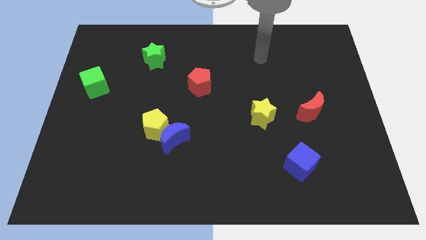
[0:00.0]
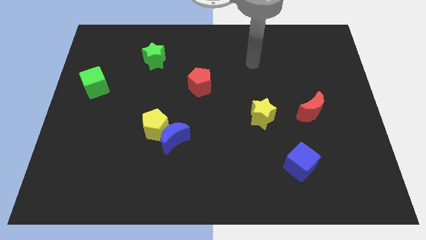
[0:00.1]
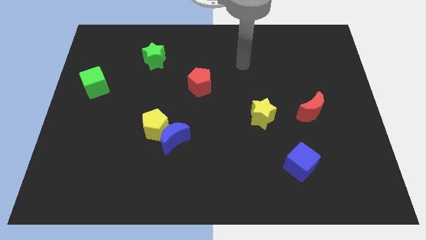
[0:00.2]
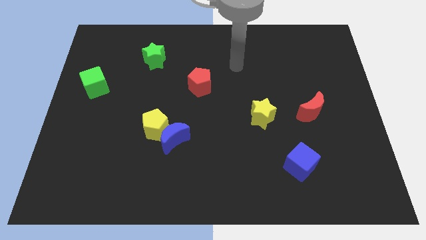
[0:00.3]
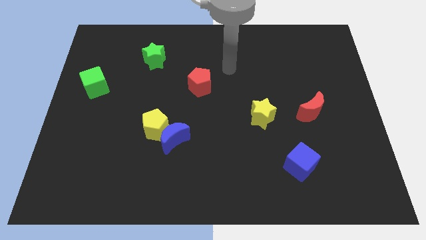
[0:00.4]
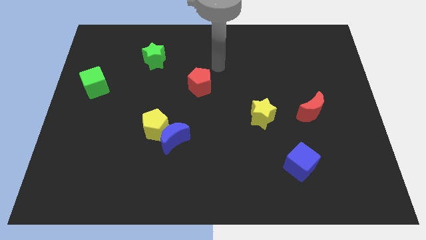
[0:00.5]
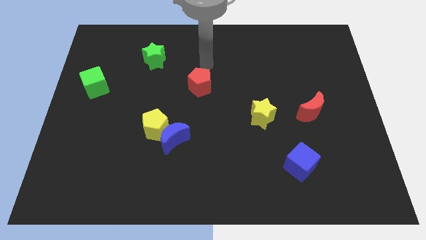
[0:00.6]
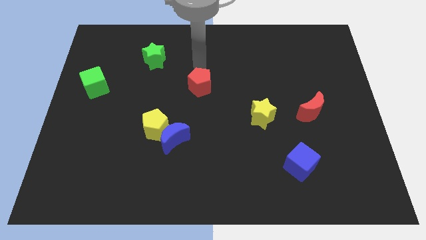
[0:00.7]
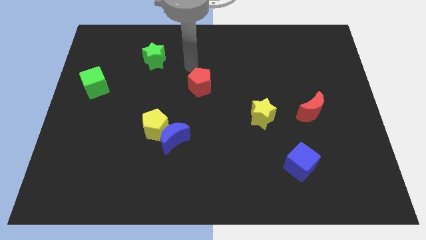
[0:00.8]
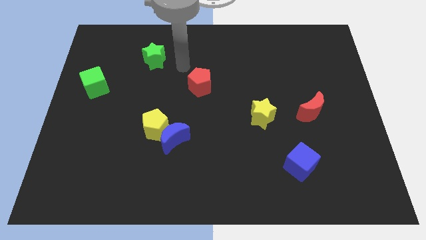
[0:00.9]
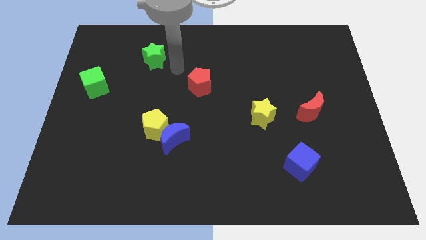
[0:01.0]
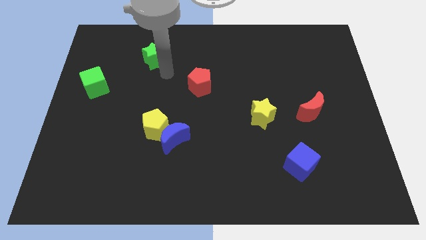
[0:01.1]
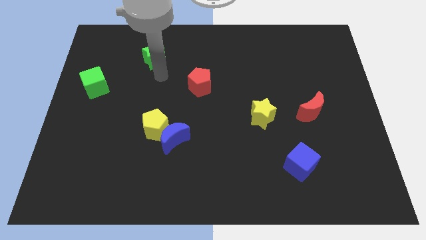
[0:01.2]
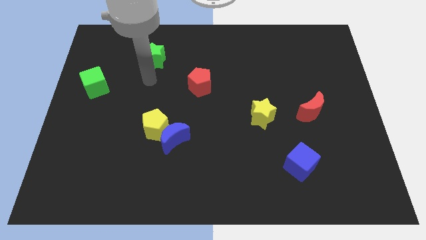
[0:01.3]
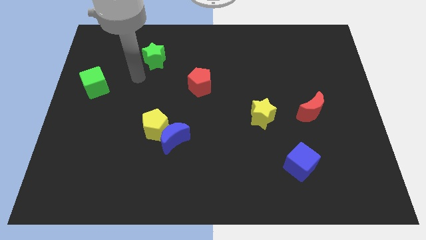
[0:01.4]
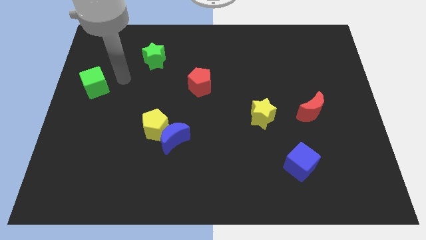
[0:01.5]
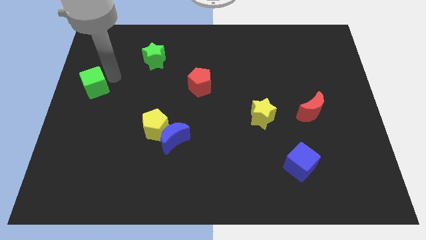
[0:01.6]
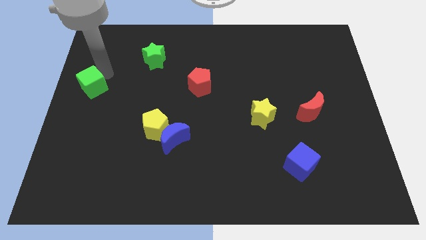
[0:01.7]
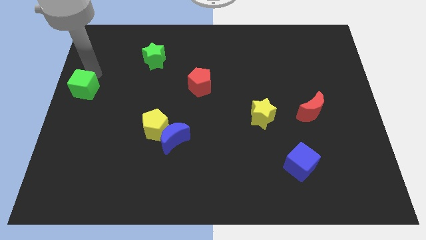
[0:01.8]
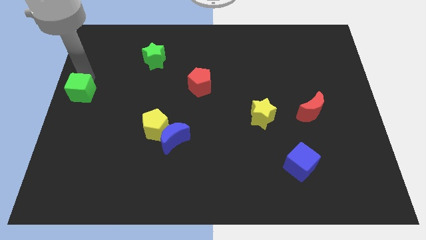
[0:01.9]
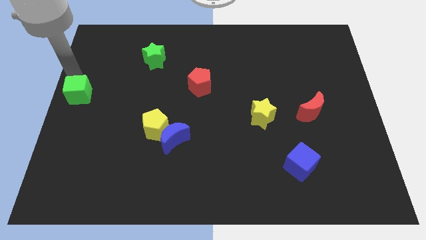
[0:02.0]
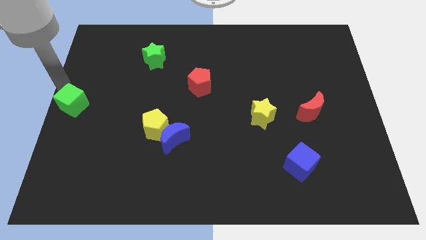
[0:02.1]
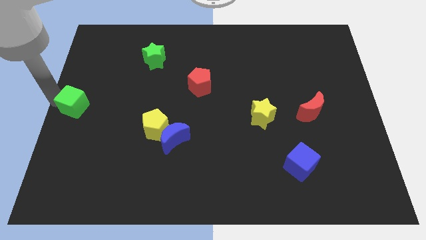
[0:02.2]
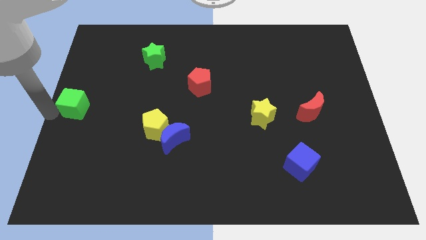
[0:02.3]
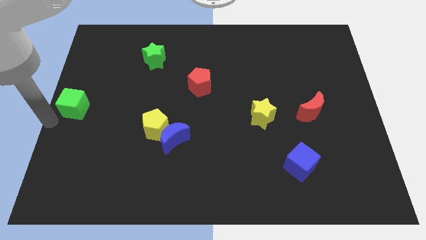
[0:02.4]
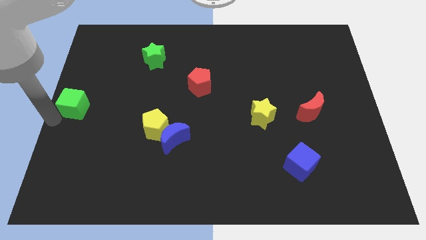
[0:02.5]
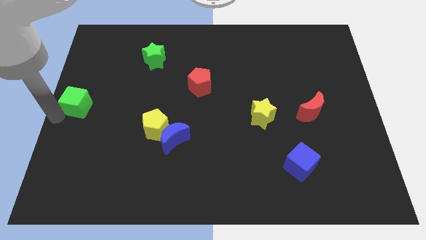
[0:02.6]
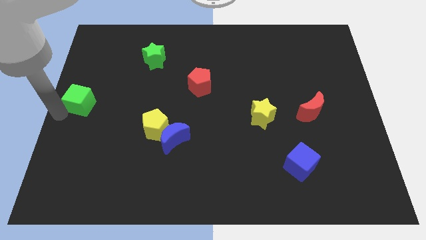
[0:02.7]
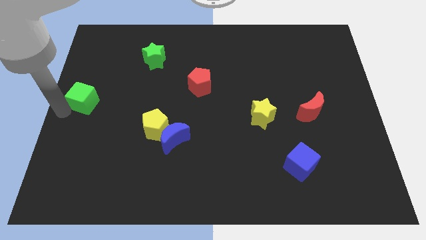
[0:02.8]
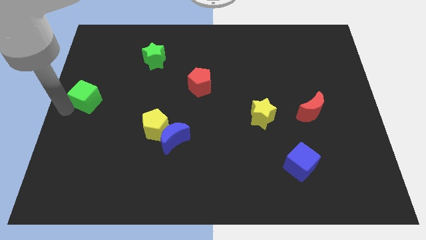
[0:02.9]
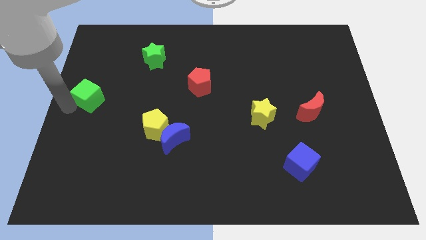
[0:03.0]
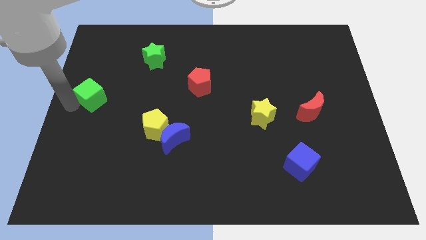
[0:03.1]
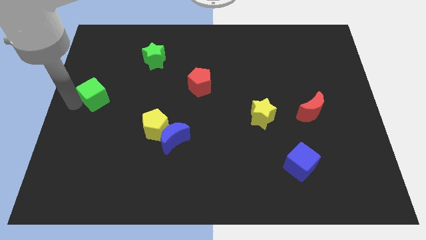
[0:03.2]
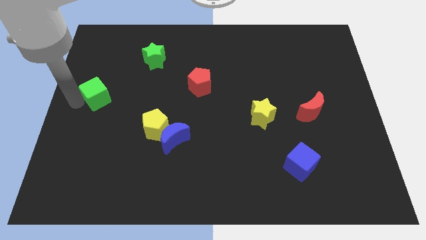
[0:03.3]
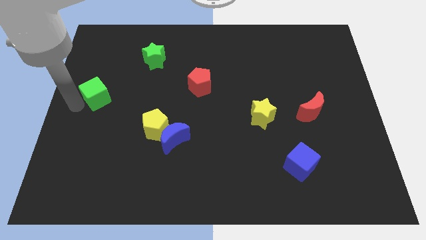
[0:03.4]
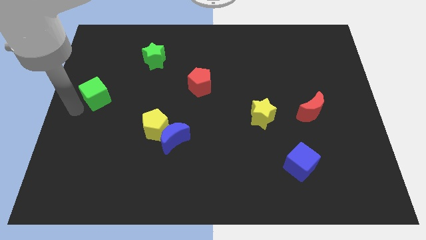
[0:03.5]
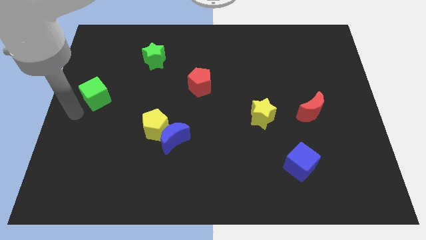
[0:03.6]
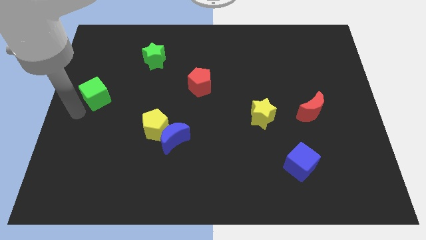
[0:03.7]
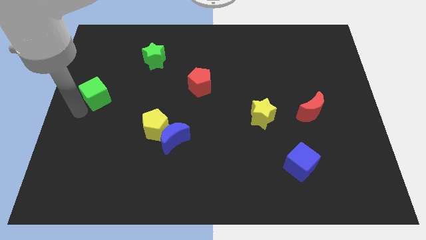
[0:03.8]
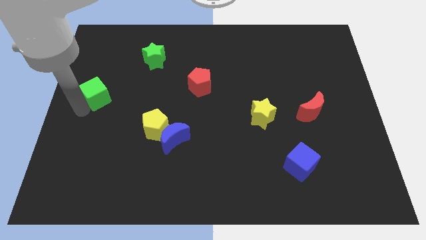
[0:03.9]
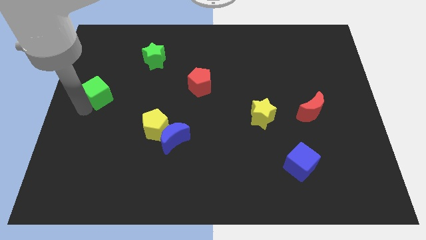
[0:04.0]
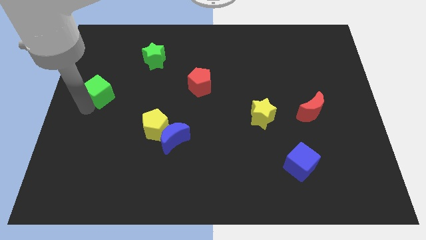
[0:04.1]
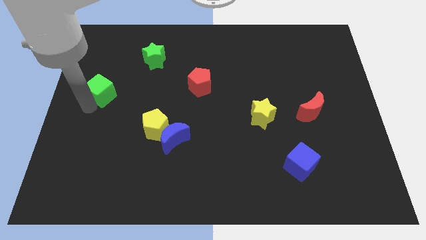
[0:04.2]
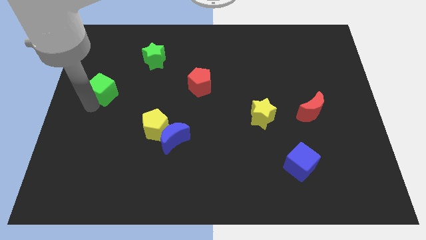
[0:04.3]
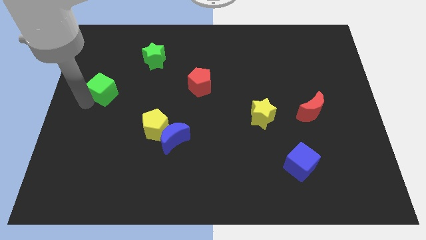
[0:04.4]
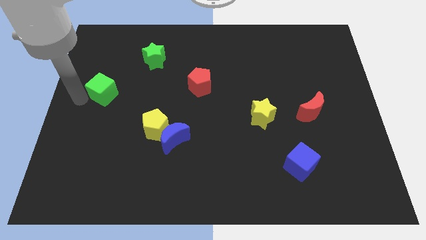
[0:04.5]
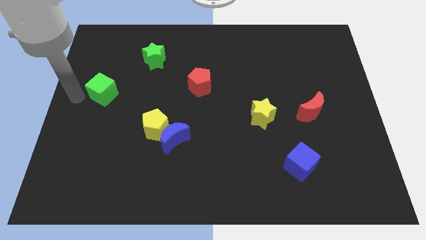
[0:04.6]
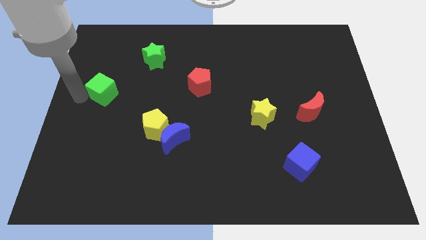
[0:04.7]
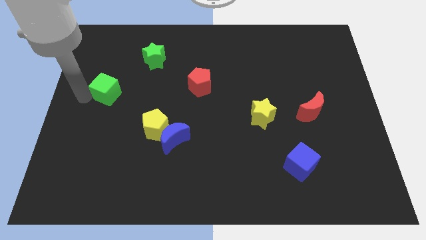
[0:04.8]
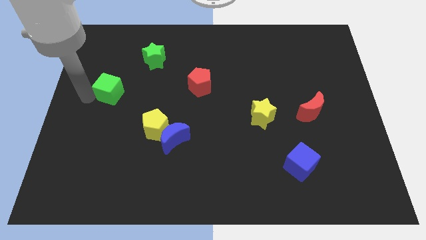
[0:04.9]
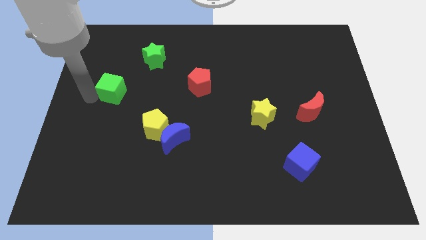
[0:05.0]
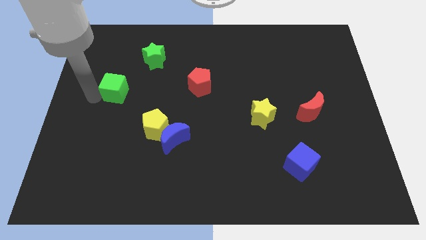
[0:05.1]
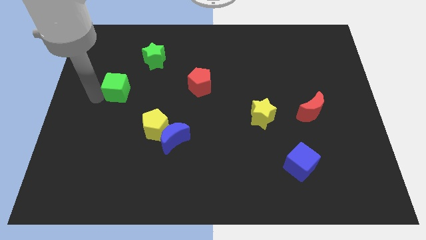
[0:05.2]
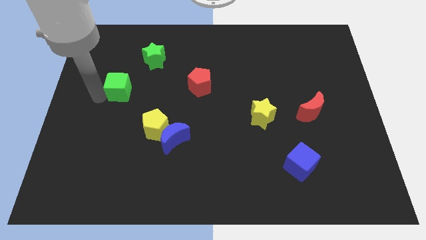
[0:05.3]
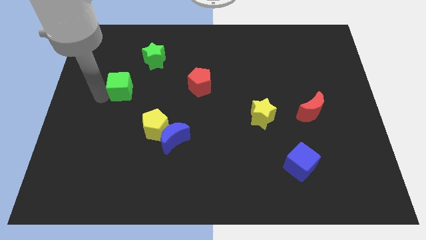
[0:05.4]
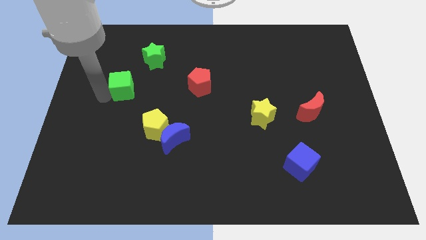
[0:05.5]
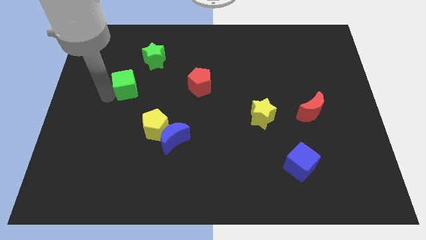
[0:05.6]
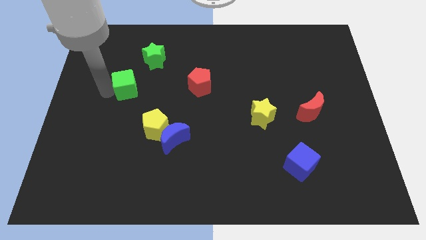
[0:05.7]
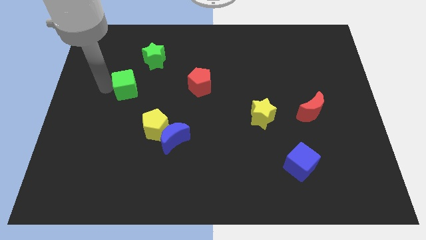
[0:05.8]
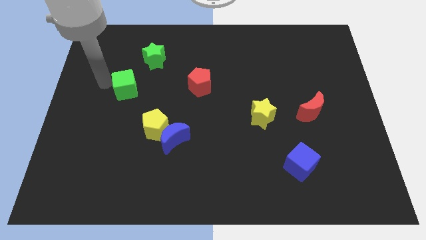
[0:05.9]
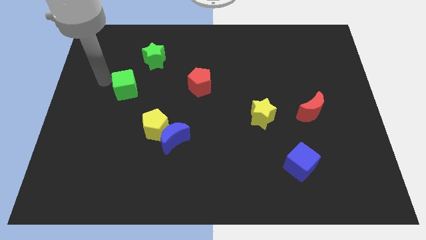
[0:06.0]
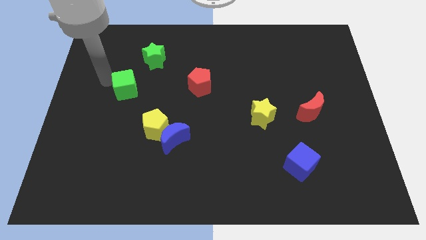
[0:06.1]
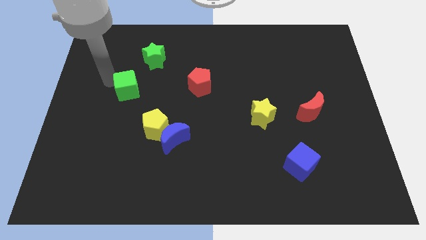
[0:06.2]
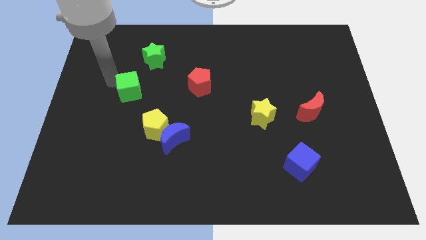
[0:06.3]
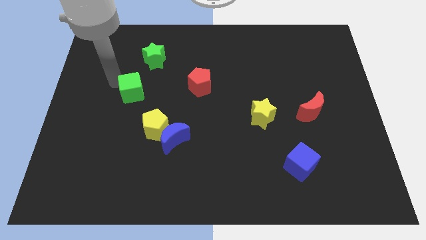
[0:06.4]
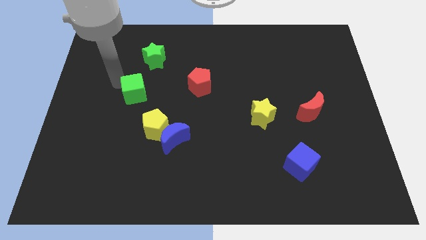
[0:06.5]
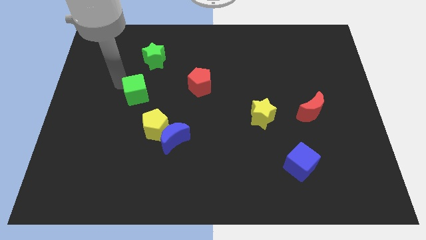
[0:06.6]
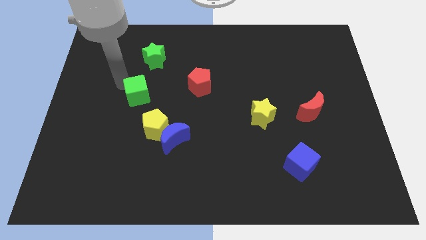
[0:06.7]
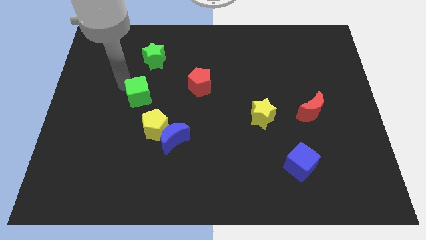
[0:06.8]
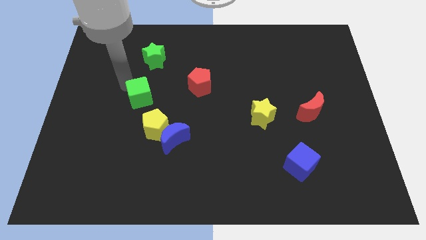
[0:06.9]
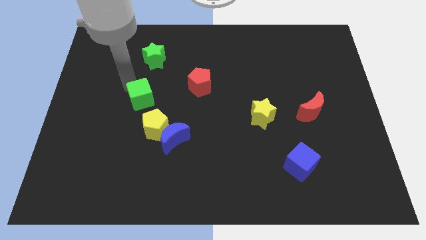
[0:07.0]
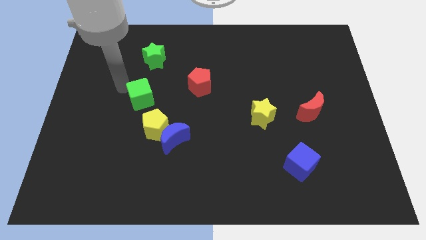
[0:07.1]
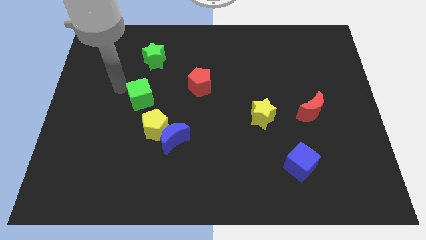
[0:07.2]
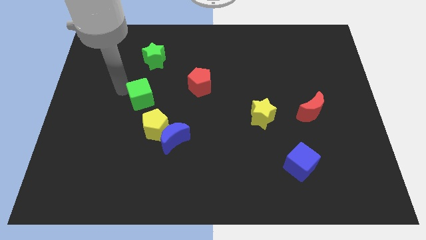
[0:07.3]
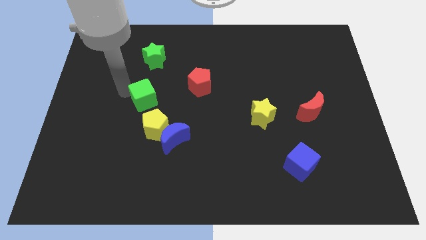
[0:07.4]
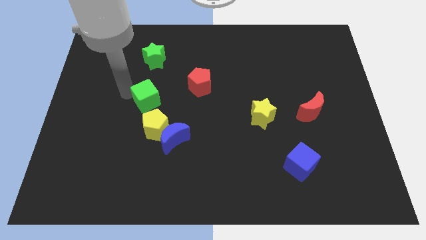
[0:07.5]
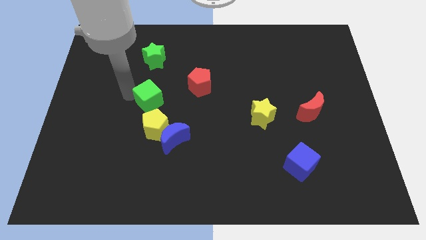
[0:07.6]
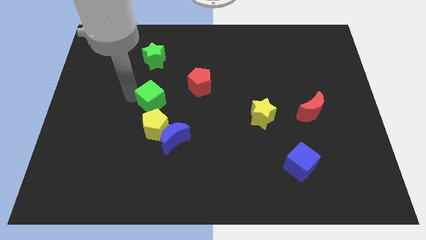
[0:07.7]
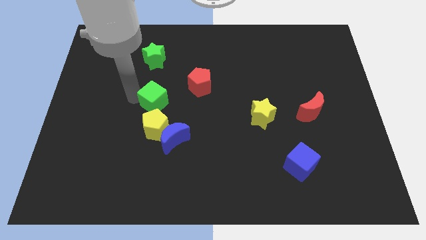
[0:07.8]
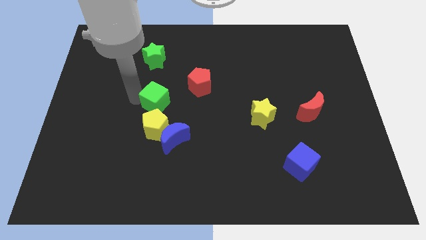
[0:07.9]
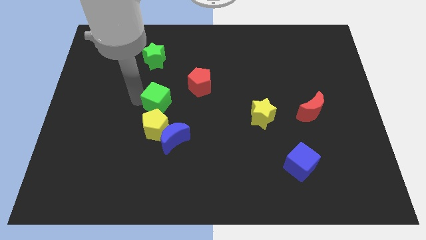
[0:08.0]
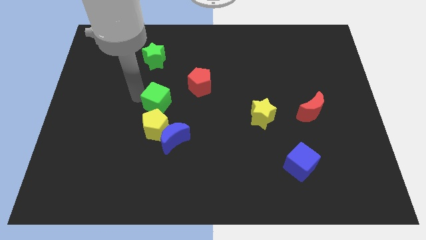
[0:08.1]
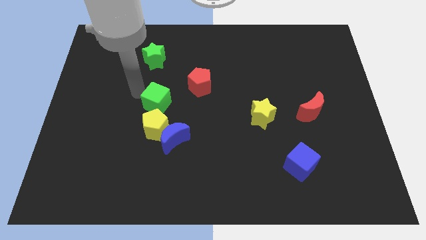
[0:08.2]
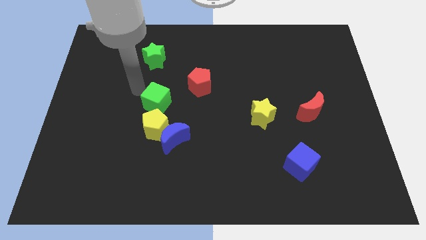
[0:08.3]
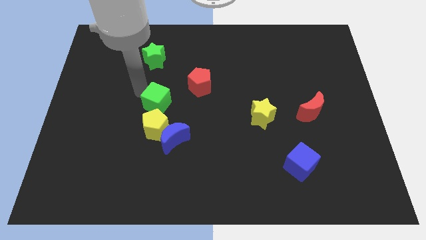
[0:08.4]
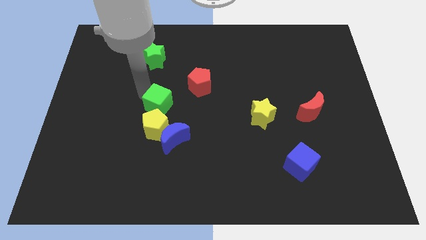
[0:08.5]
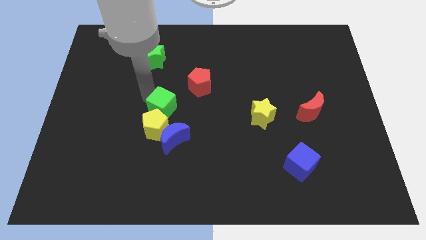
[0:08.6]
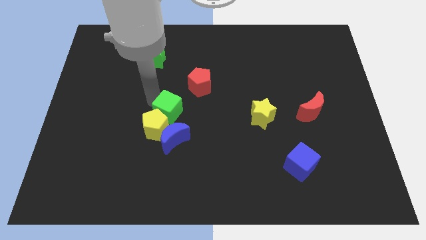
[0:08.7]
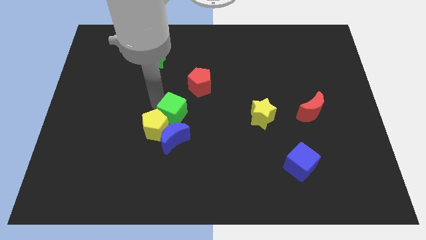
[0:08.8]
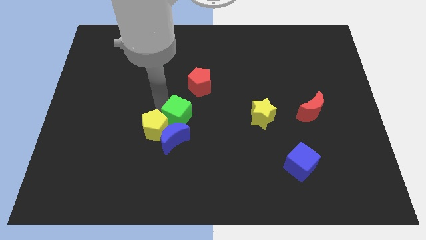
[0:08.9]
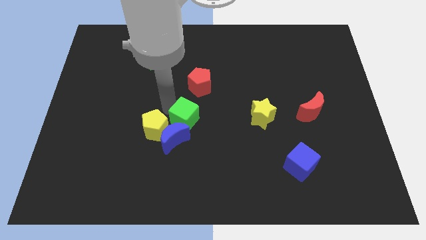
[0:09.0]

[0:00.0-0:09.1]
put the green cube to the blue moon
